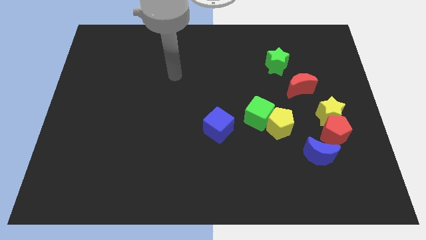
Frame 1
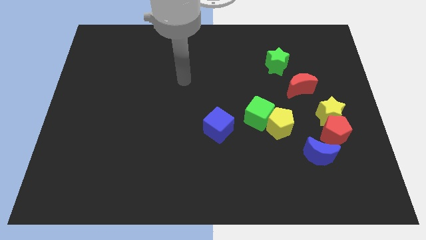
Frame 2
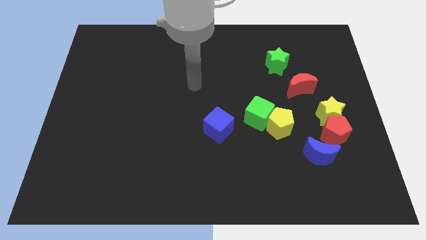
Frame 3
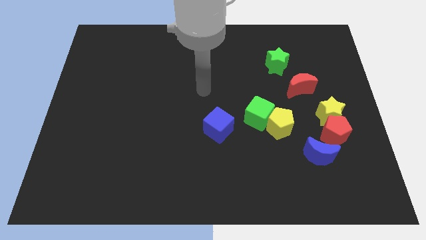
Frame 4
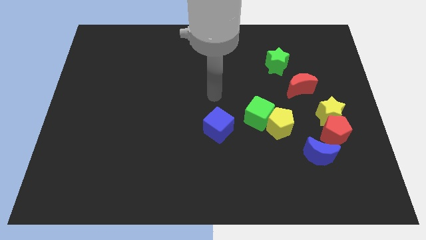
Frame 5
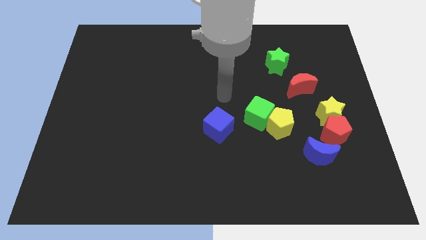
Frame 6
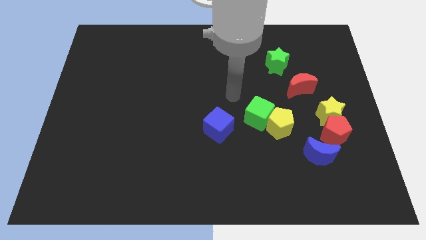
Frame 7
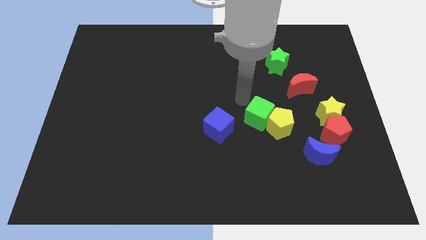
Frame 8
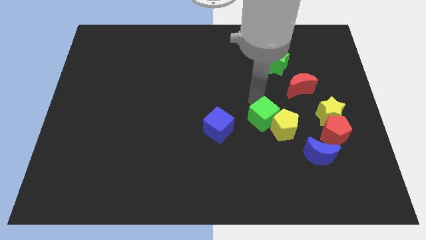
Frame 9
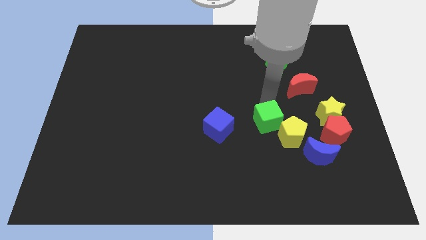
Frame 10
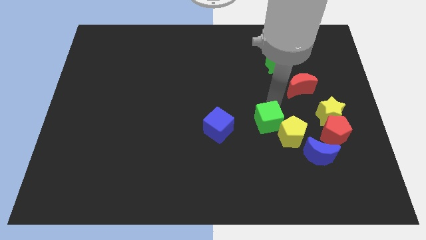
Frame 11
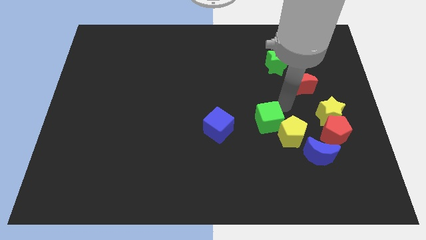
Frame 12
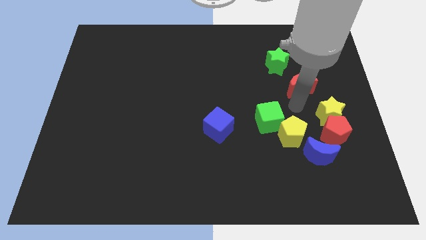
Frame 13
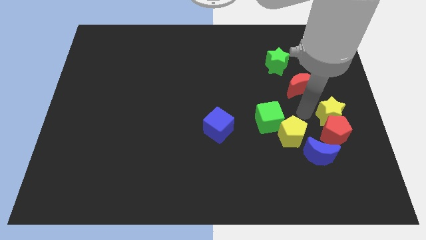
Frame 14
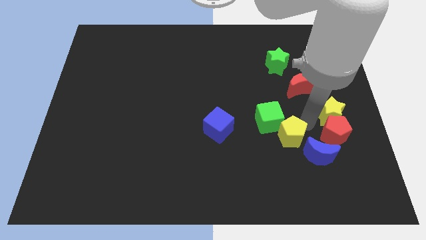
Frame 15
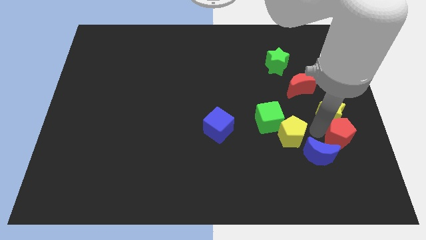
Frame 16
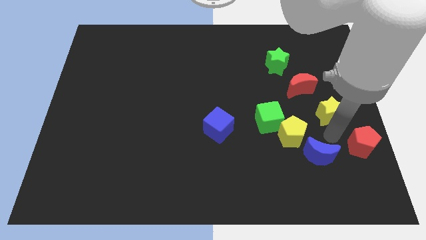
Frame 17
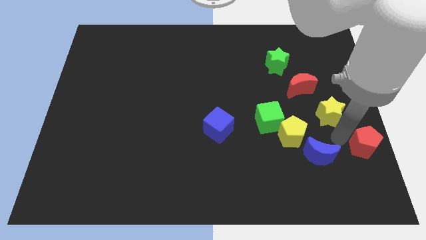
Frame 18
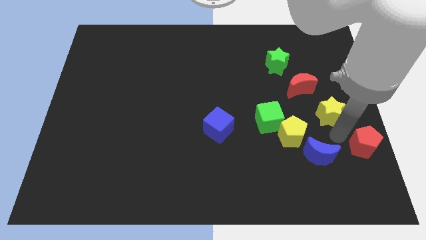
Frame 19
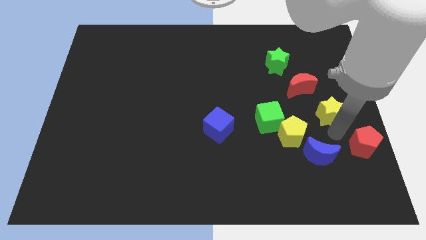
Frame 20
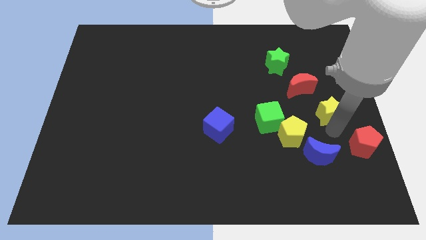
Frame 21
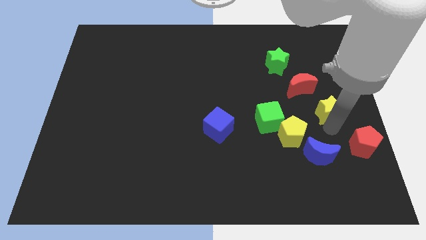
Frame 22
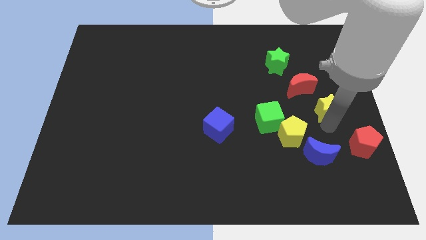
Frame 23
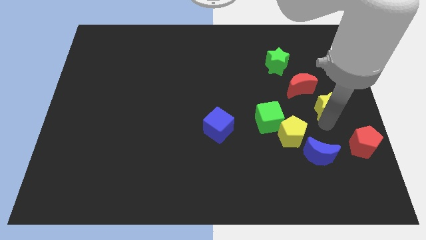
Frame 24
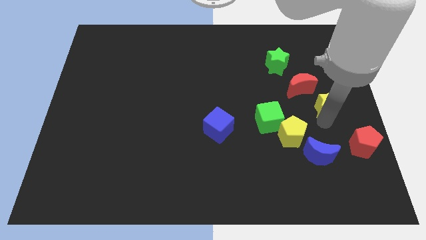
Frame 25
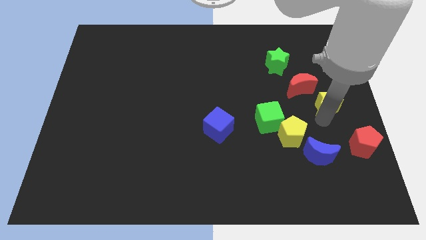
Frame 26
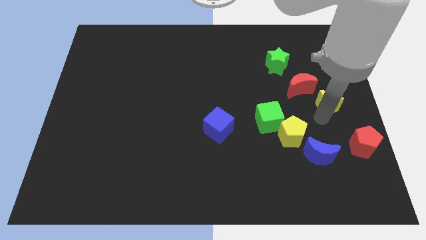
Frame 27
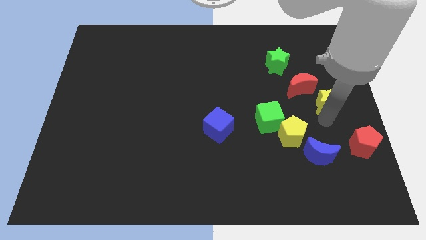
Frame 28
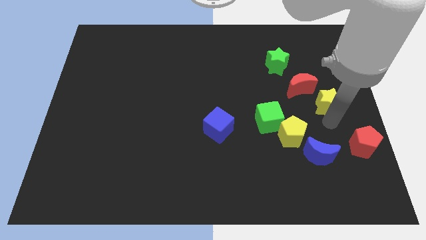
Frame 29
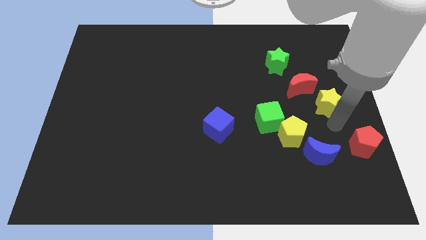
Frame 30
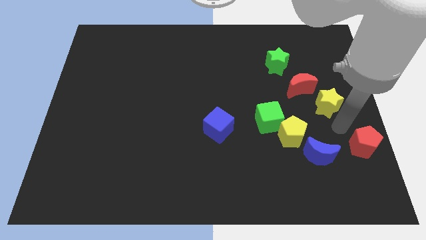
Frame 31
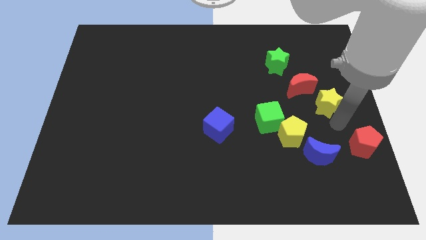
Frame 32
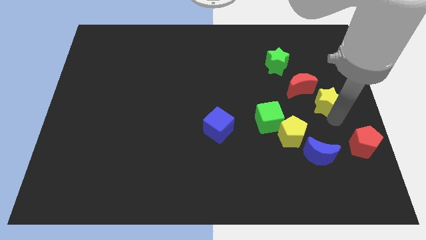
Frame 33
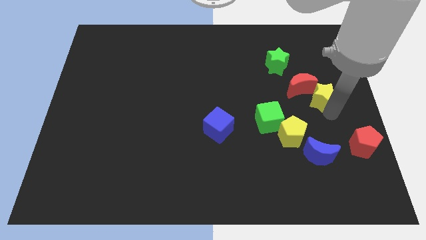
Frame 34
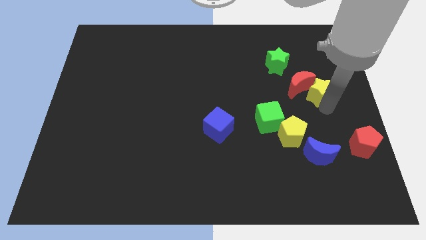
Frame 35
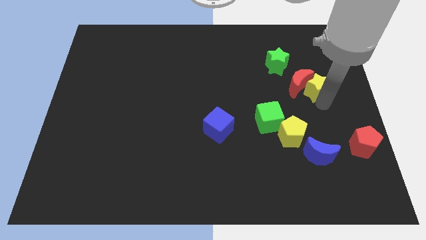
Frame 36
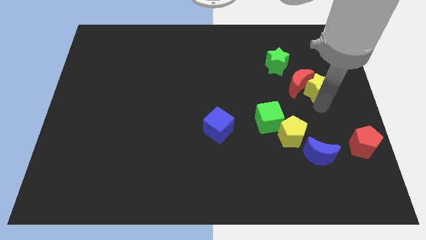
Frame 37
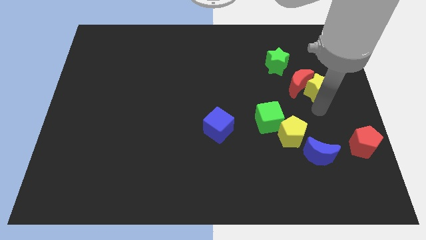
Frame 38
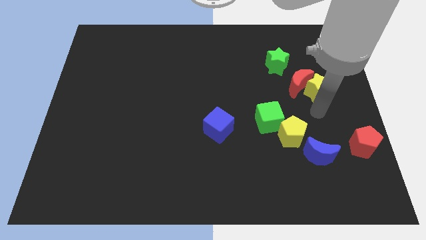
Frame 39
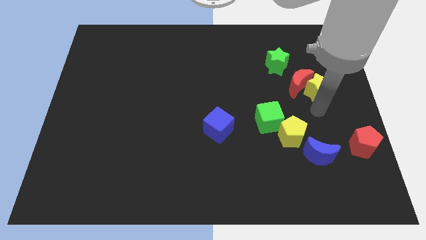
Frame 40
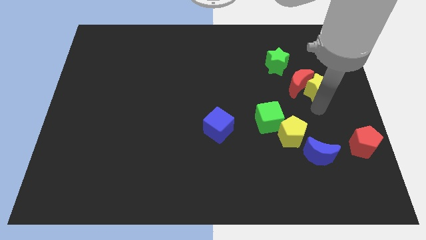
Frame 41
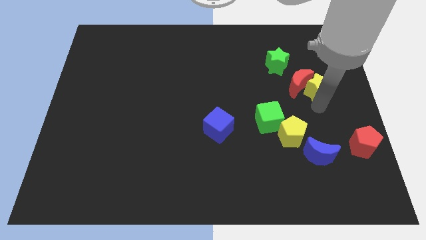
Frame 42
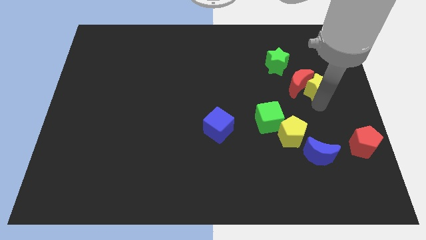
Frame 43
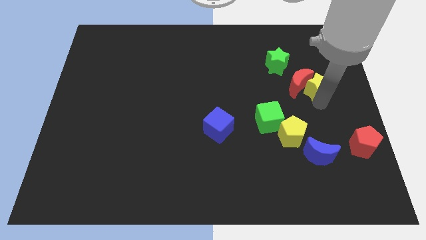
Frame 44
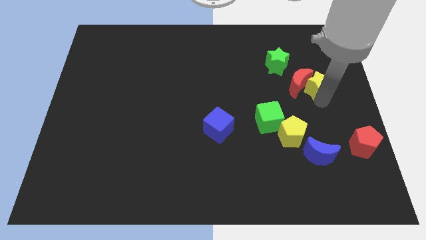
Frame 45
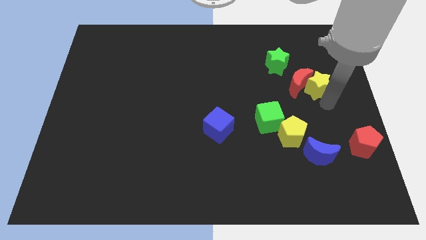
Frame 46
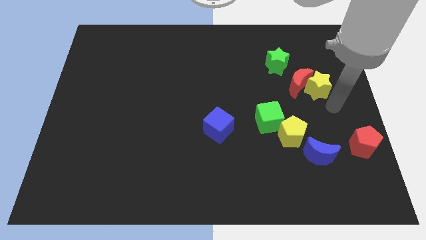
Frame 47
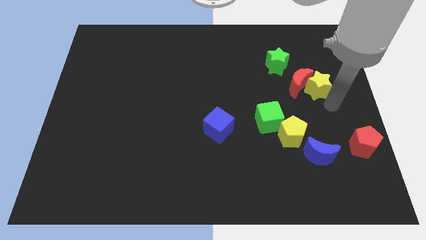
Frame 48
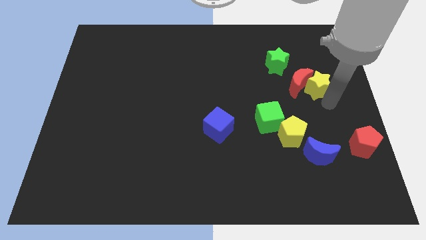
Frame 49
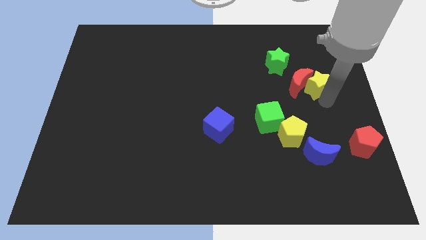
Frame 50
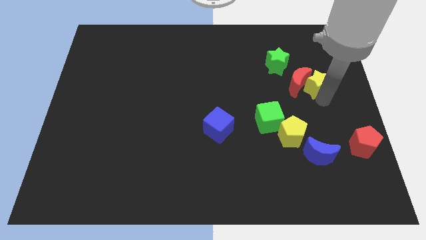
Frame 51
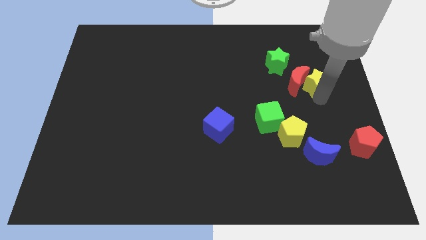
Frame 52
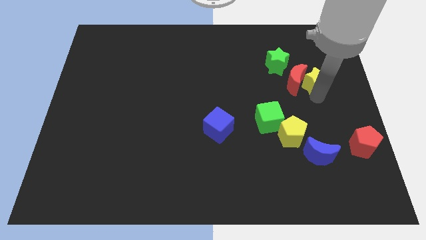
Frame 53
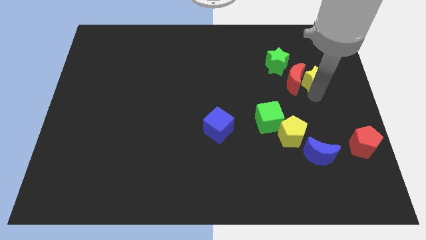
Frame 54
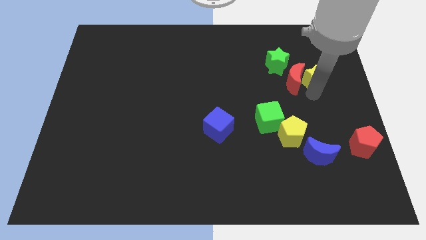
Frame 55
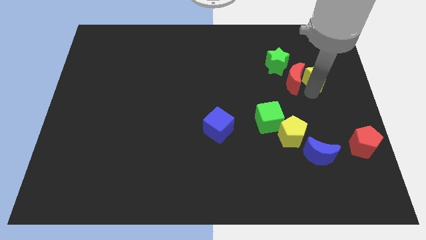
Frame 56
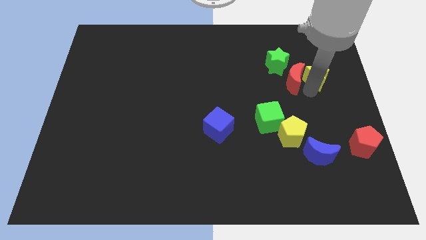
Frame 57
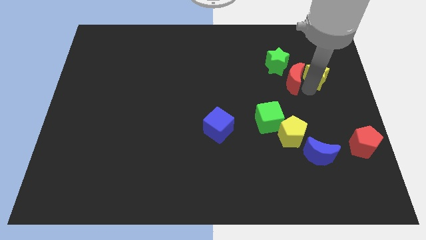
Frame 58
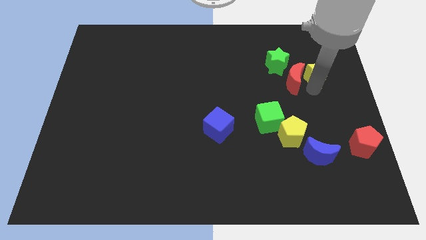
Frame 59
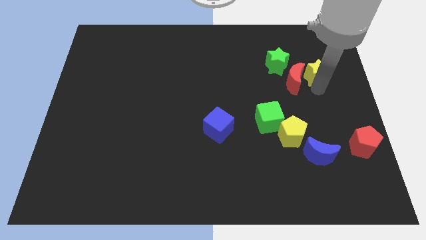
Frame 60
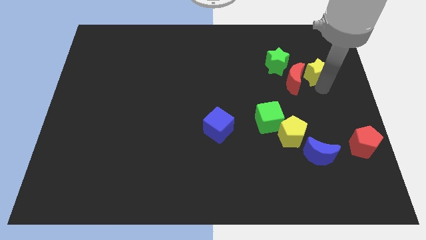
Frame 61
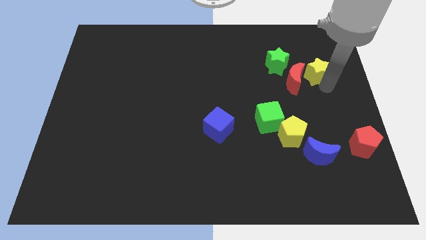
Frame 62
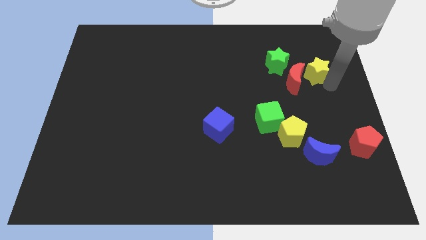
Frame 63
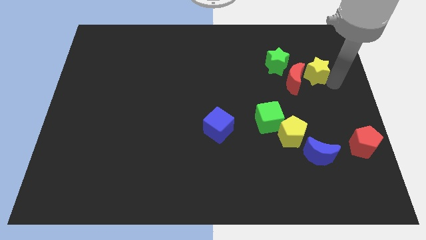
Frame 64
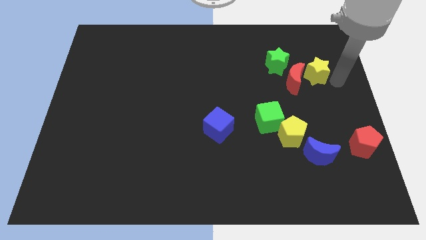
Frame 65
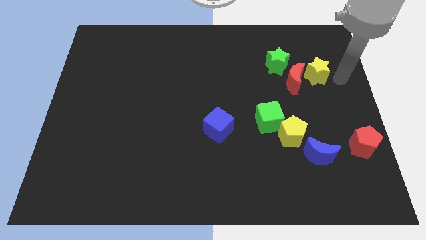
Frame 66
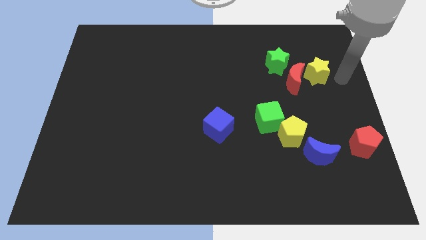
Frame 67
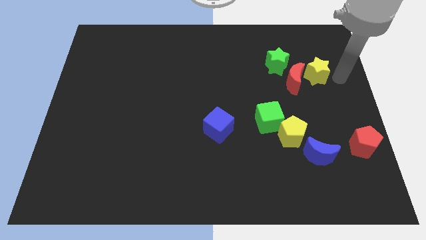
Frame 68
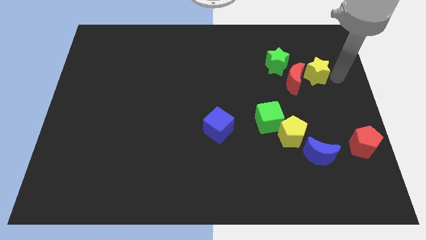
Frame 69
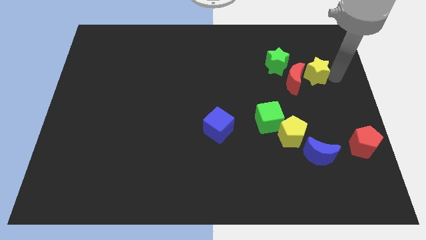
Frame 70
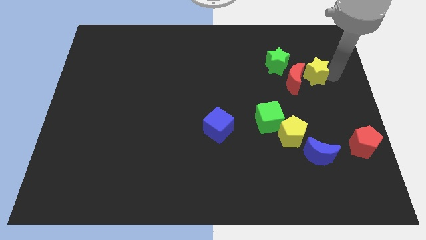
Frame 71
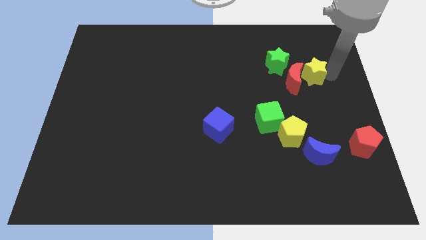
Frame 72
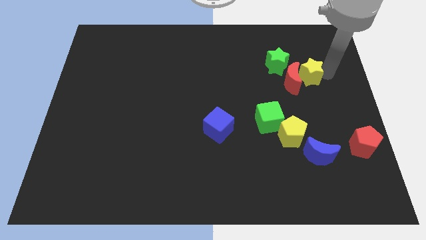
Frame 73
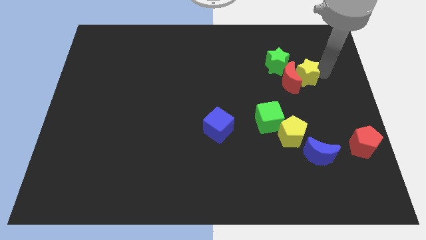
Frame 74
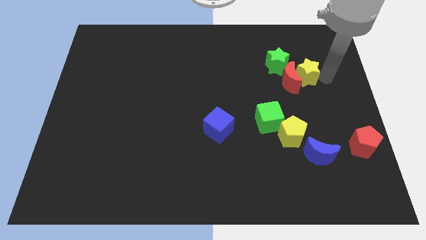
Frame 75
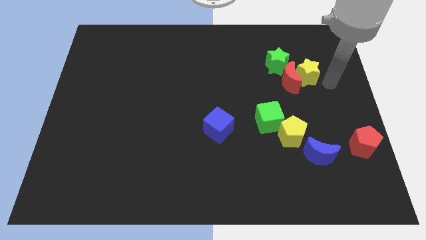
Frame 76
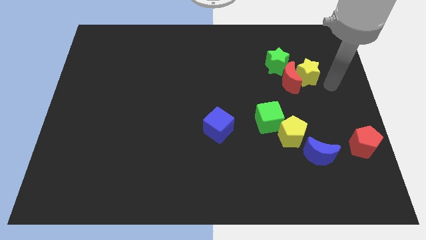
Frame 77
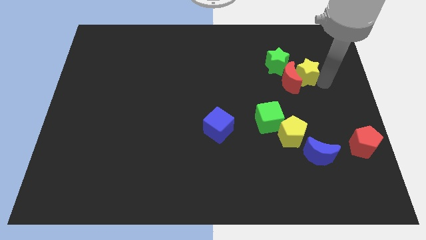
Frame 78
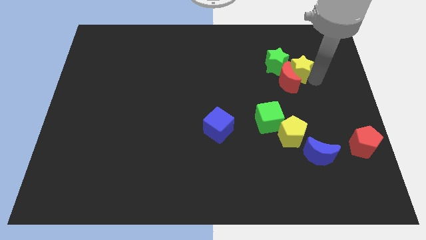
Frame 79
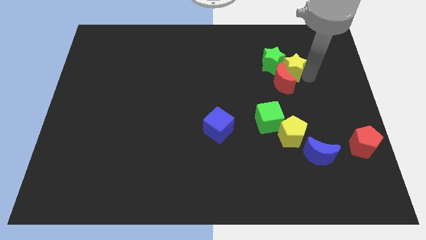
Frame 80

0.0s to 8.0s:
slide the yellow star close to the green star
